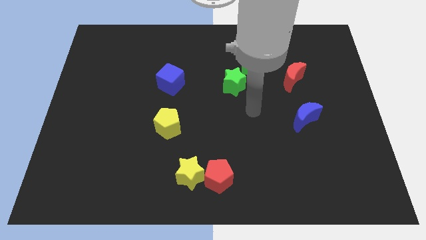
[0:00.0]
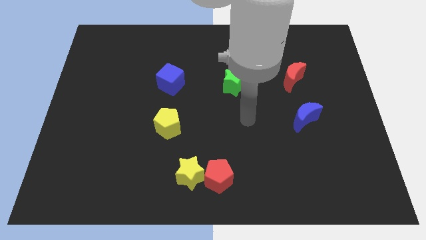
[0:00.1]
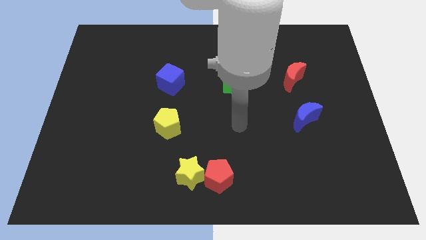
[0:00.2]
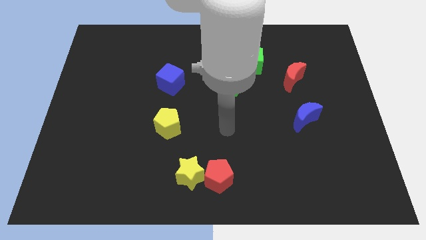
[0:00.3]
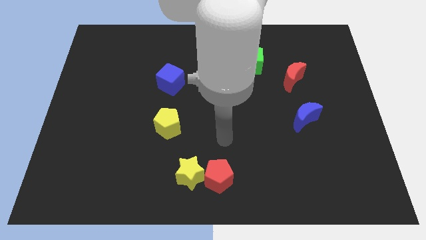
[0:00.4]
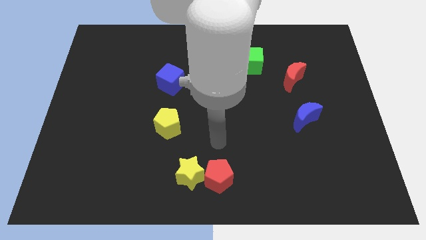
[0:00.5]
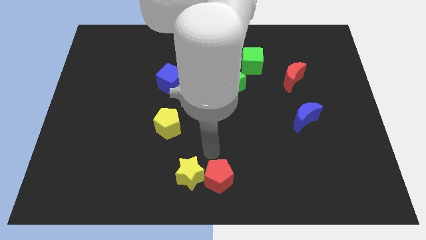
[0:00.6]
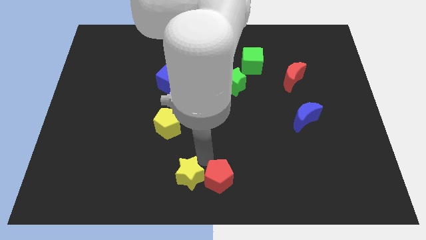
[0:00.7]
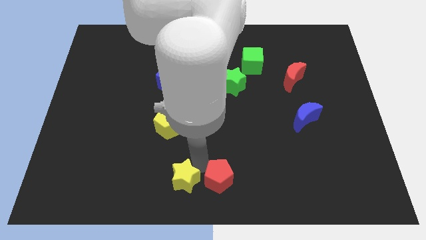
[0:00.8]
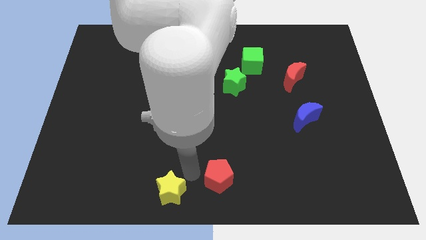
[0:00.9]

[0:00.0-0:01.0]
separate the red pentagon from the yellow star

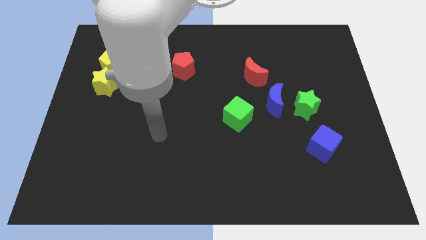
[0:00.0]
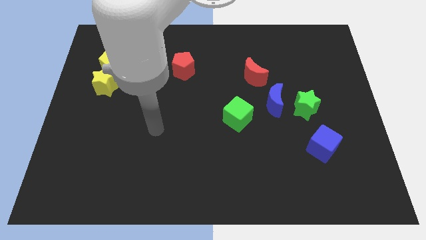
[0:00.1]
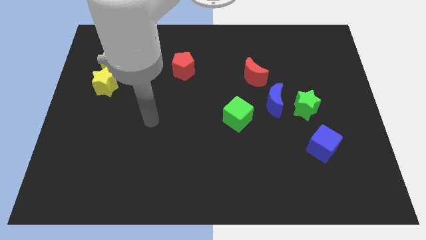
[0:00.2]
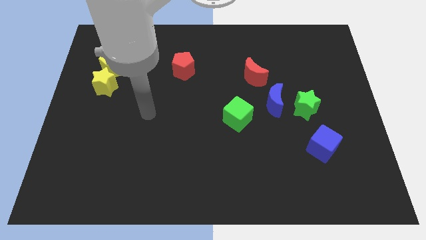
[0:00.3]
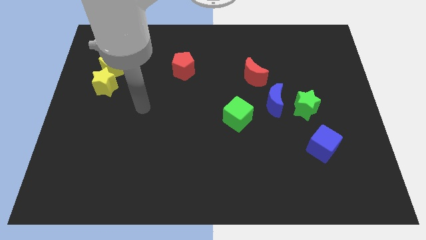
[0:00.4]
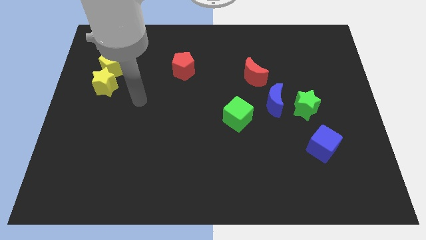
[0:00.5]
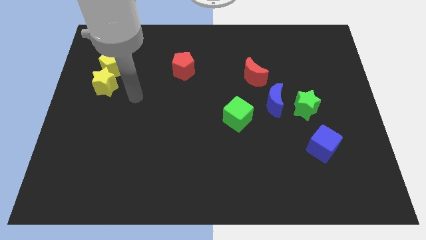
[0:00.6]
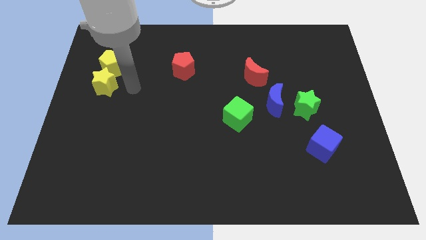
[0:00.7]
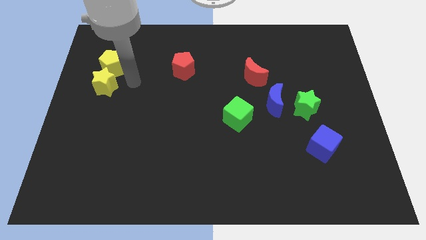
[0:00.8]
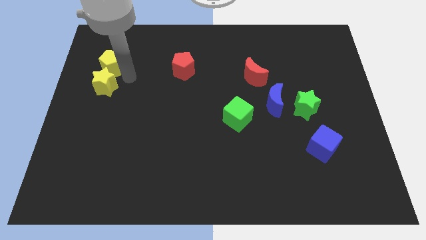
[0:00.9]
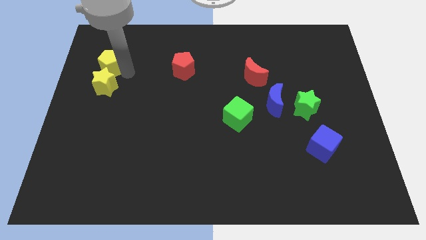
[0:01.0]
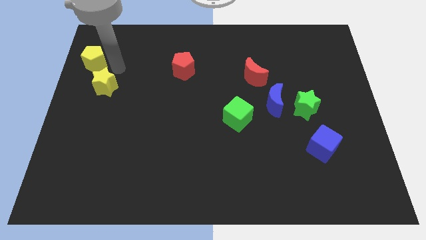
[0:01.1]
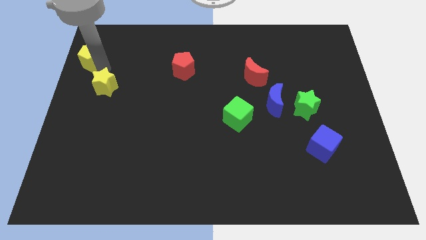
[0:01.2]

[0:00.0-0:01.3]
pull the yellow star apart from the yellow pentagon

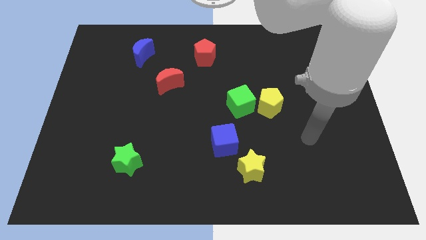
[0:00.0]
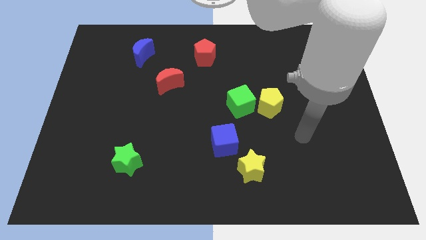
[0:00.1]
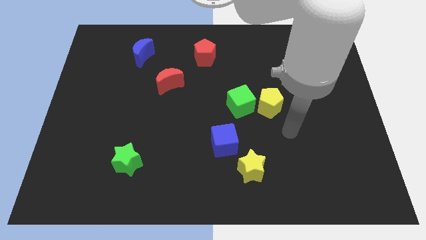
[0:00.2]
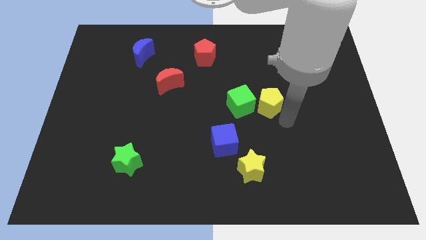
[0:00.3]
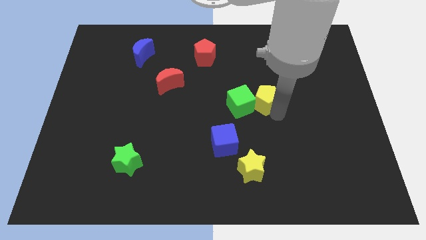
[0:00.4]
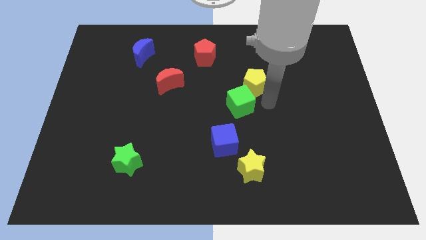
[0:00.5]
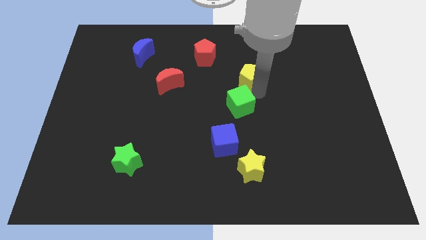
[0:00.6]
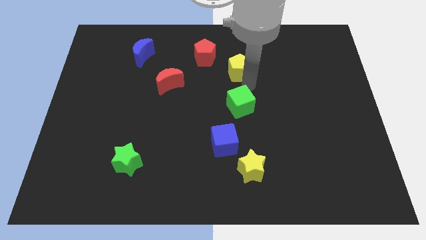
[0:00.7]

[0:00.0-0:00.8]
separate the green cube from the yellow pentagon

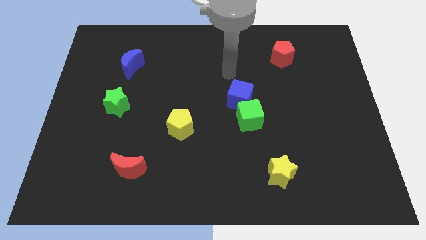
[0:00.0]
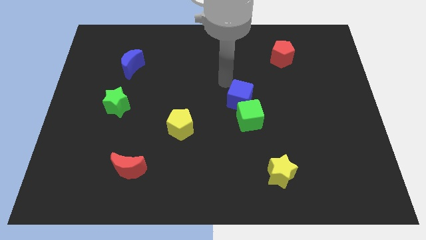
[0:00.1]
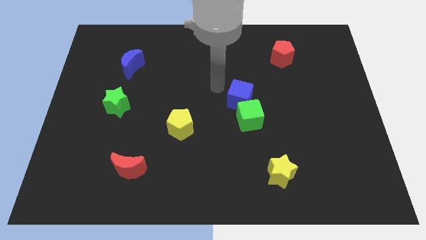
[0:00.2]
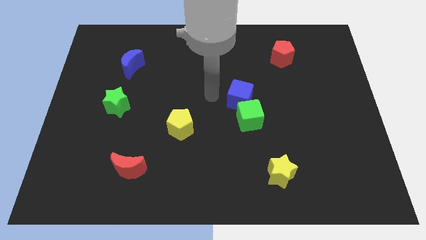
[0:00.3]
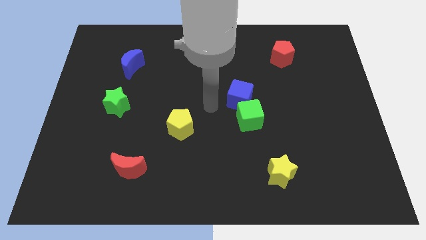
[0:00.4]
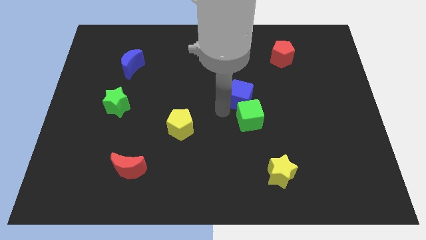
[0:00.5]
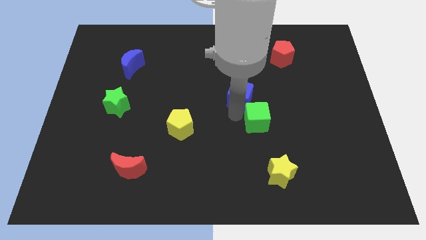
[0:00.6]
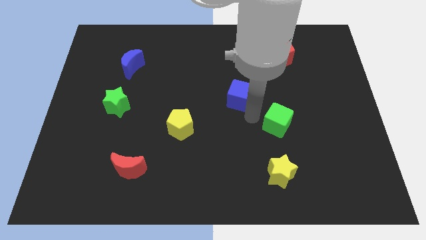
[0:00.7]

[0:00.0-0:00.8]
separate the blue cube from the green cube

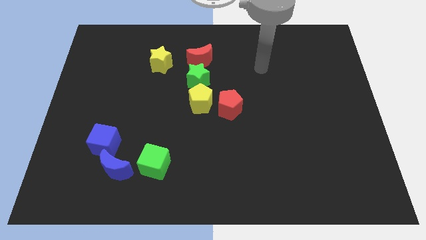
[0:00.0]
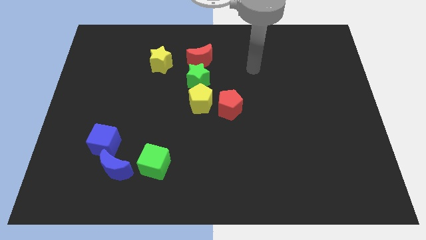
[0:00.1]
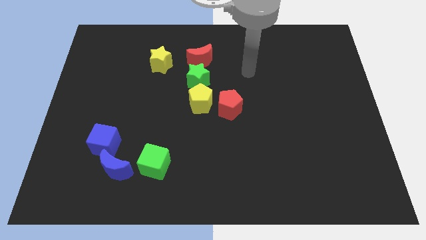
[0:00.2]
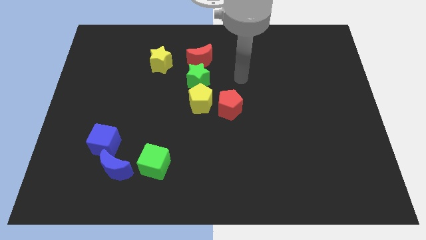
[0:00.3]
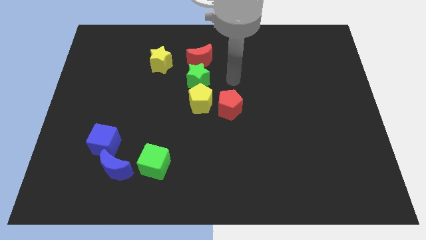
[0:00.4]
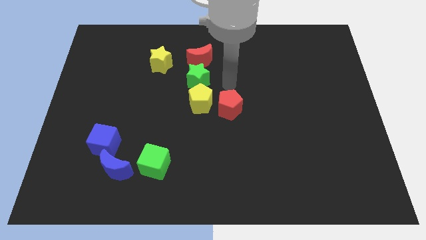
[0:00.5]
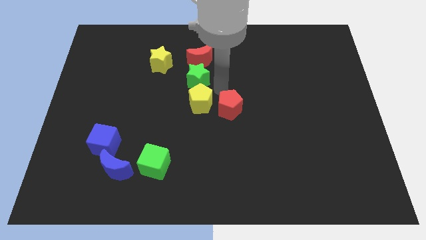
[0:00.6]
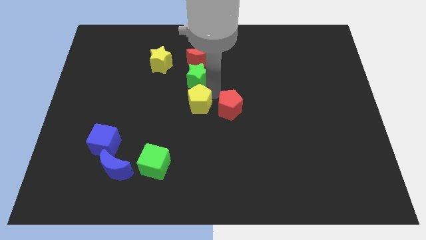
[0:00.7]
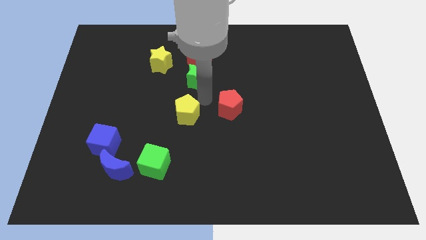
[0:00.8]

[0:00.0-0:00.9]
pull the red pentagon apart from the yellow pentagon

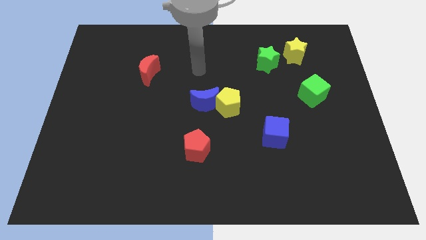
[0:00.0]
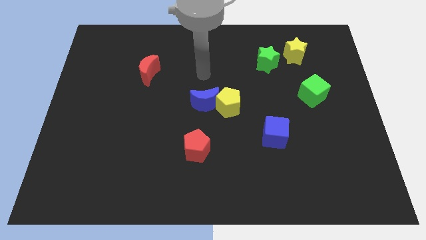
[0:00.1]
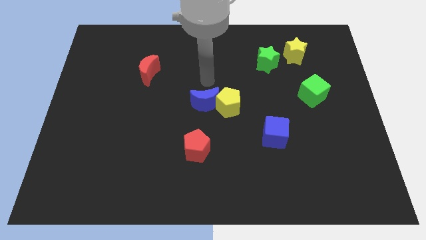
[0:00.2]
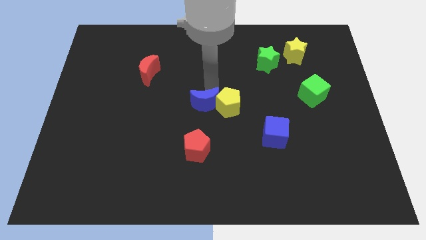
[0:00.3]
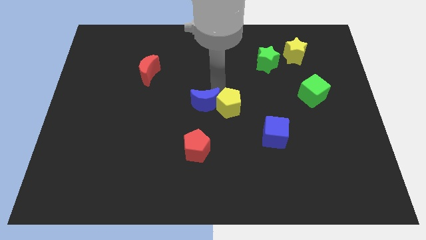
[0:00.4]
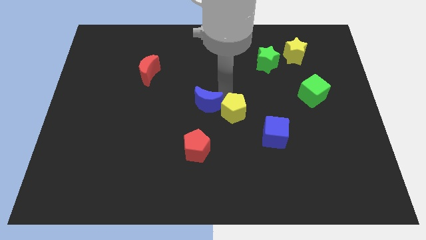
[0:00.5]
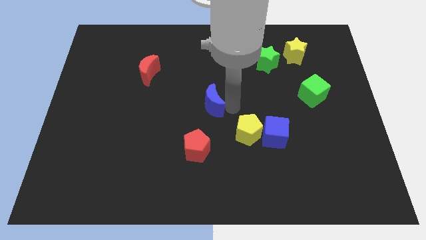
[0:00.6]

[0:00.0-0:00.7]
separate the blue moon from the yellow pentagon

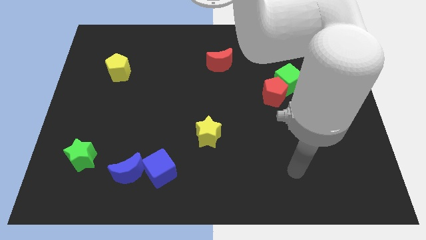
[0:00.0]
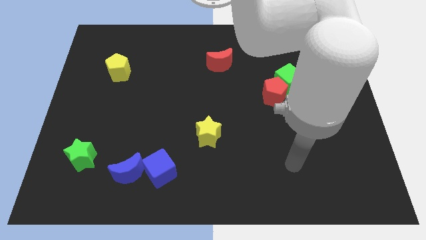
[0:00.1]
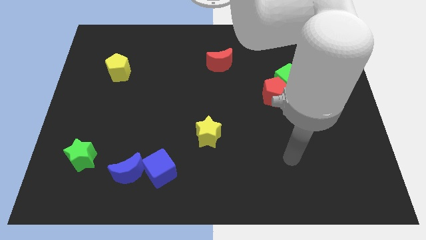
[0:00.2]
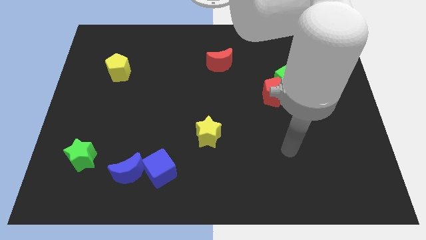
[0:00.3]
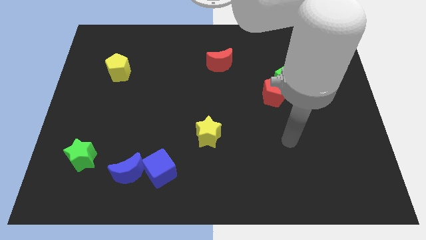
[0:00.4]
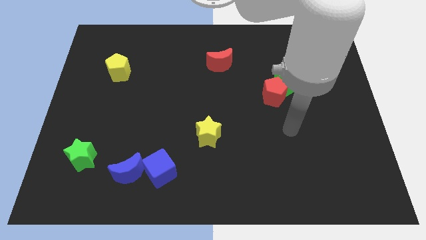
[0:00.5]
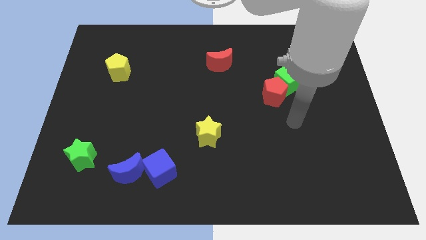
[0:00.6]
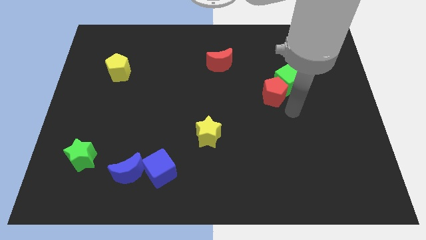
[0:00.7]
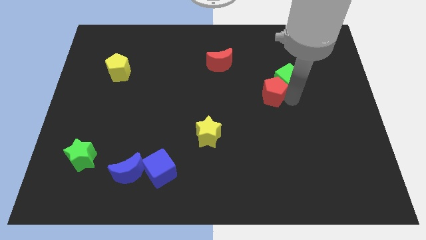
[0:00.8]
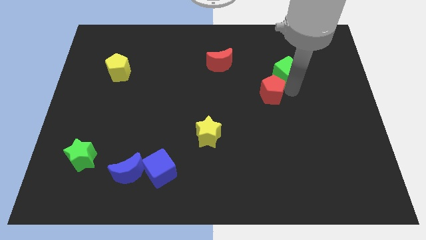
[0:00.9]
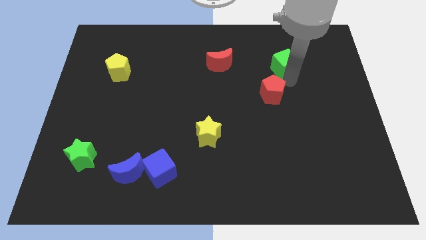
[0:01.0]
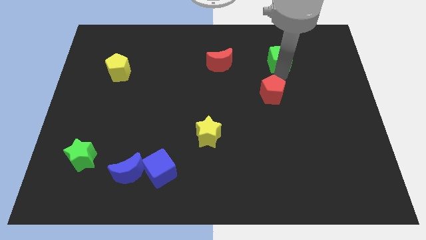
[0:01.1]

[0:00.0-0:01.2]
move the red pentagon away from the green cube

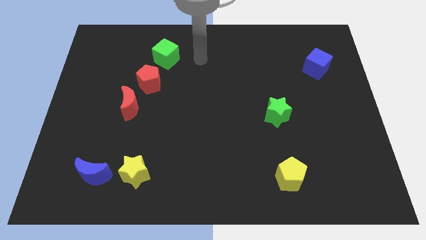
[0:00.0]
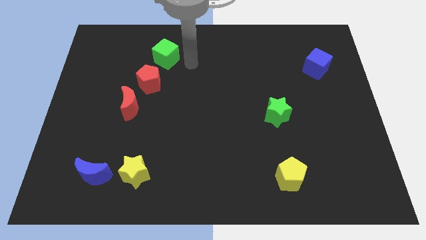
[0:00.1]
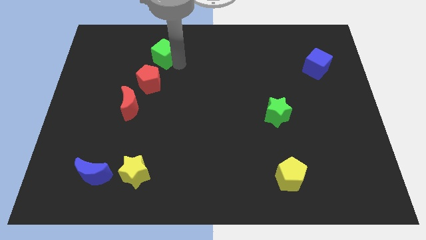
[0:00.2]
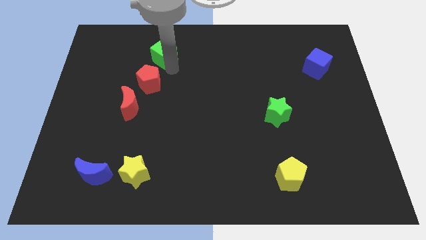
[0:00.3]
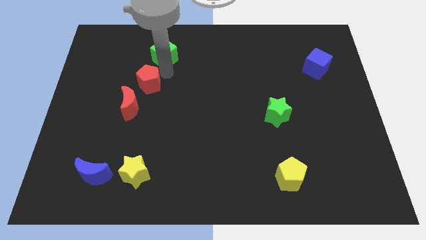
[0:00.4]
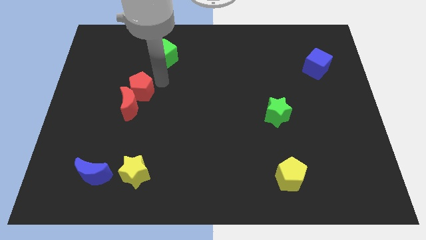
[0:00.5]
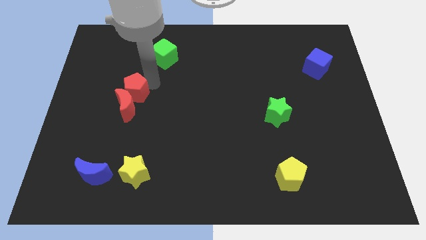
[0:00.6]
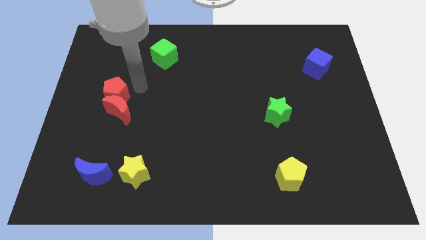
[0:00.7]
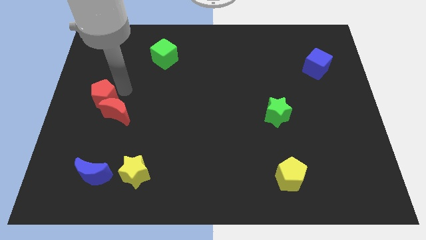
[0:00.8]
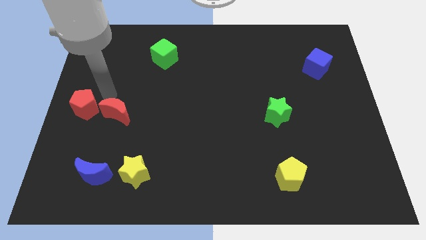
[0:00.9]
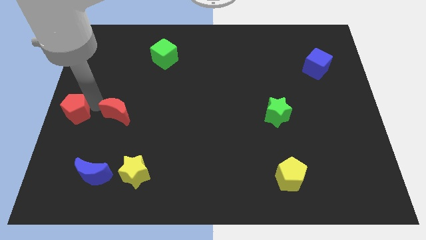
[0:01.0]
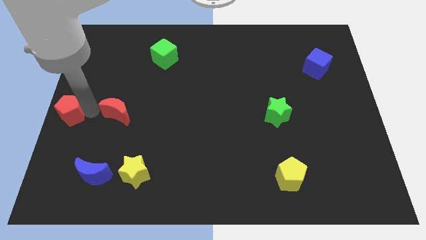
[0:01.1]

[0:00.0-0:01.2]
separate the red moon from the red pentagon

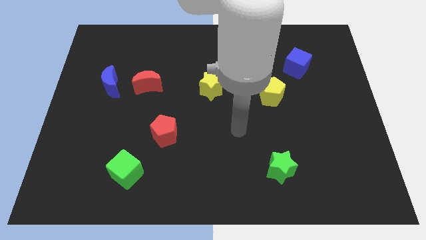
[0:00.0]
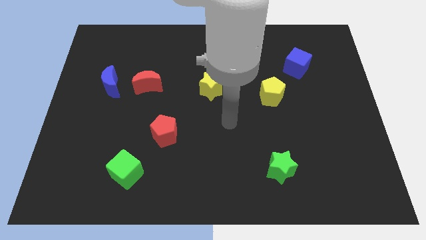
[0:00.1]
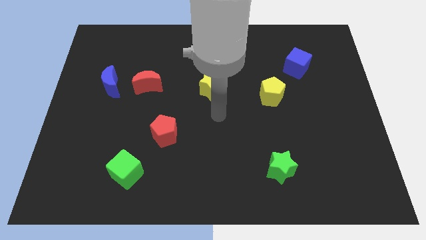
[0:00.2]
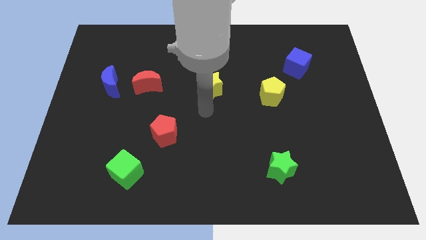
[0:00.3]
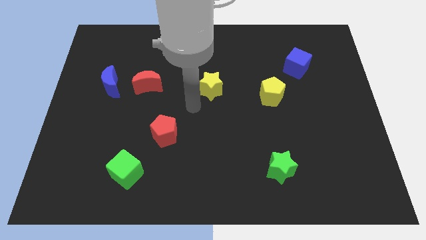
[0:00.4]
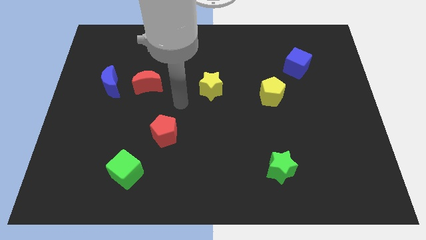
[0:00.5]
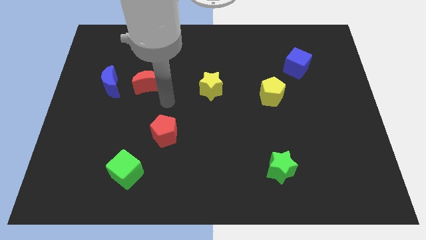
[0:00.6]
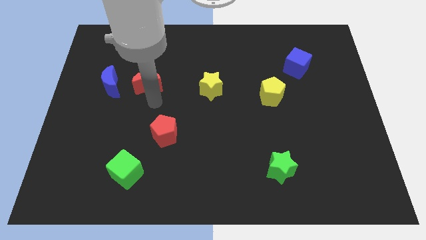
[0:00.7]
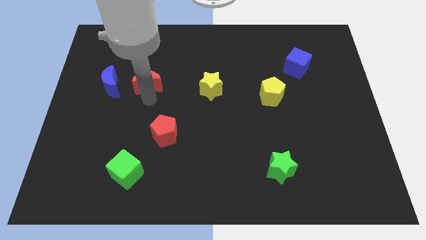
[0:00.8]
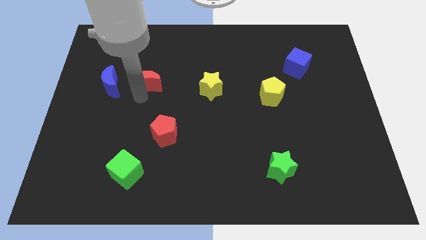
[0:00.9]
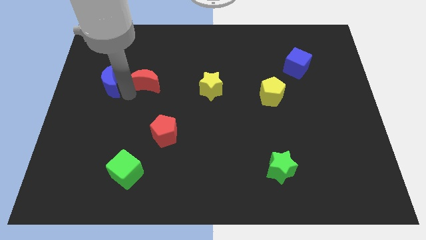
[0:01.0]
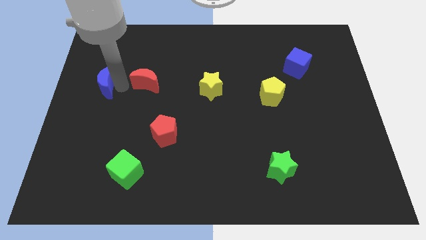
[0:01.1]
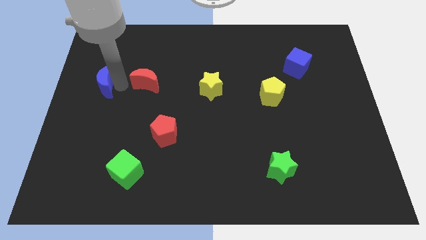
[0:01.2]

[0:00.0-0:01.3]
move the red moon away from the blue moon

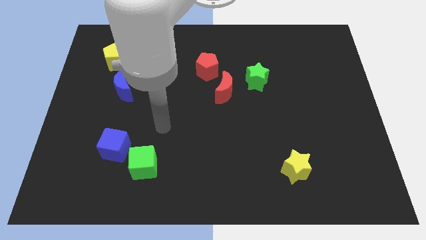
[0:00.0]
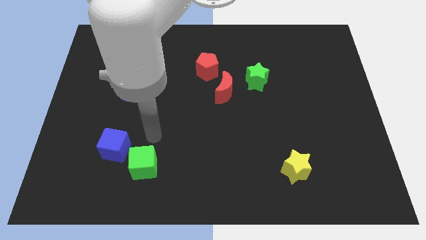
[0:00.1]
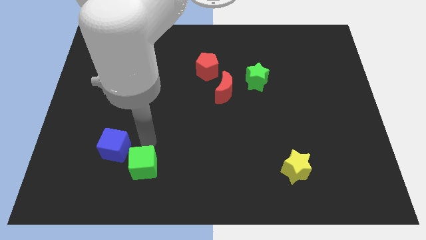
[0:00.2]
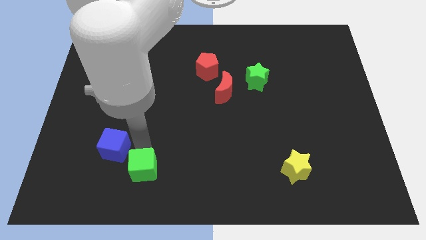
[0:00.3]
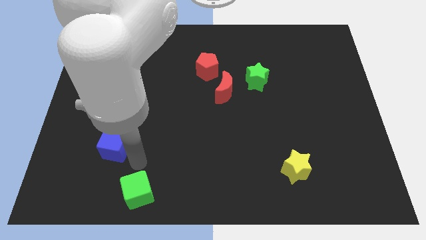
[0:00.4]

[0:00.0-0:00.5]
pull the blue cube apart from the green cube
